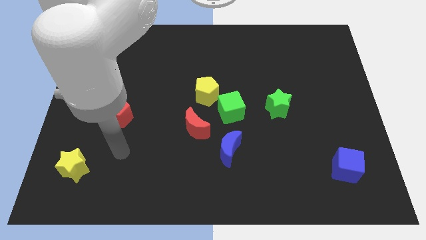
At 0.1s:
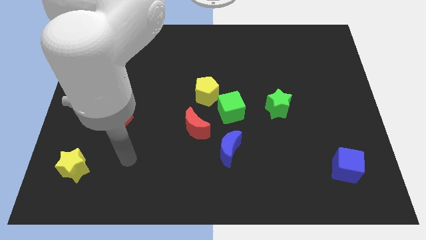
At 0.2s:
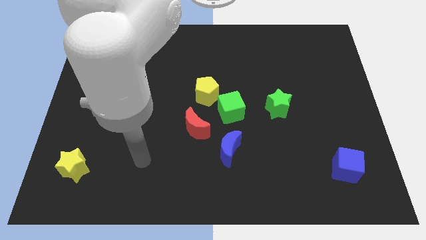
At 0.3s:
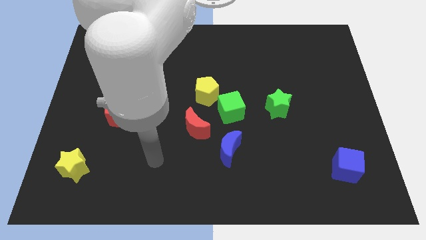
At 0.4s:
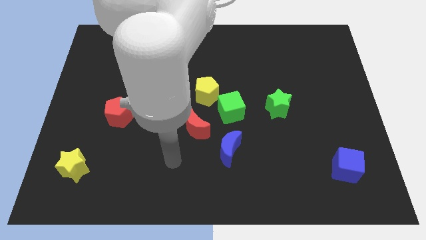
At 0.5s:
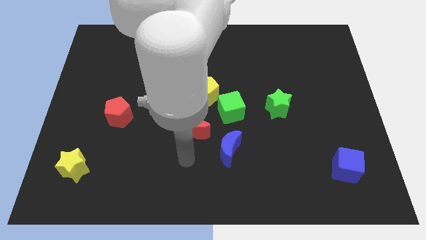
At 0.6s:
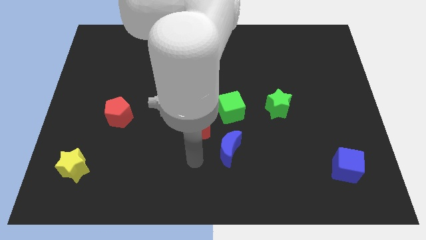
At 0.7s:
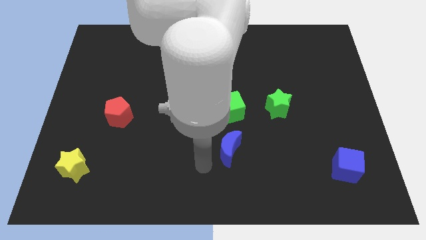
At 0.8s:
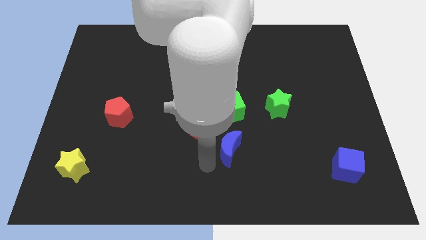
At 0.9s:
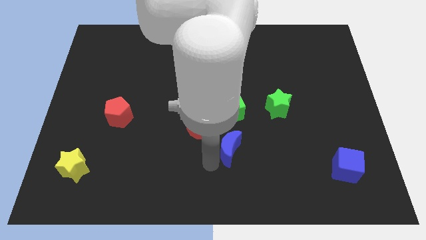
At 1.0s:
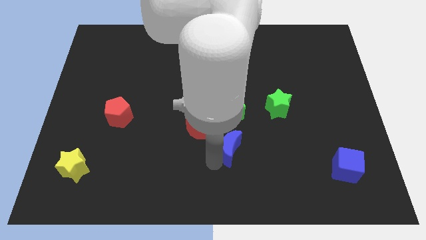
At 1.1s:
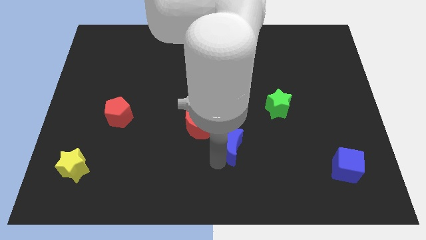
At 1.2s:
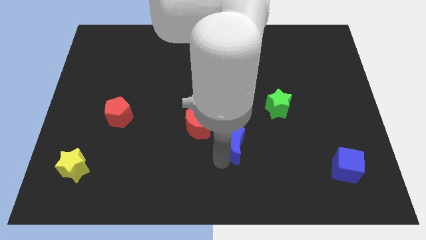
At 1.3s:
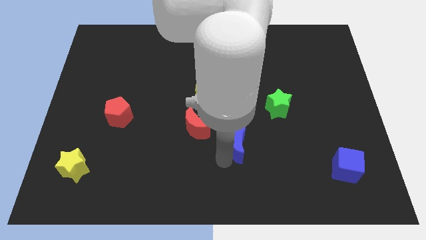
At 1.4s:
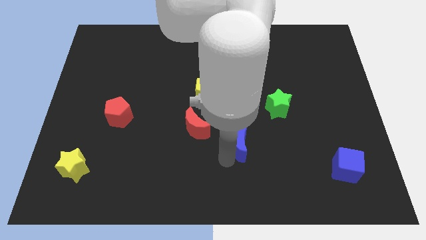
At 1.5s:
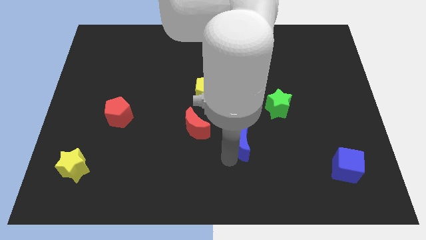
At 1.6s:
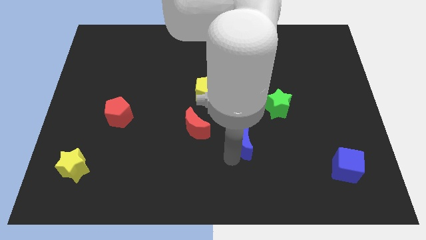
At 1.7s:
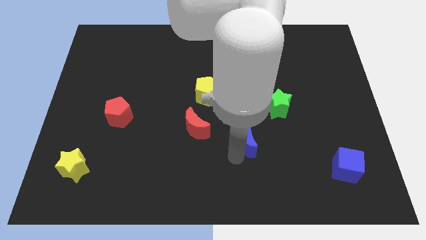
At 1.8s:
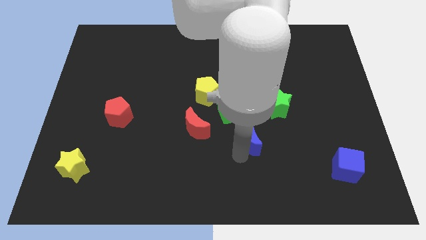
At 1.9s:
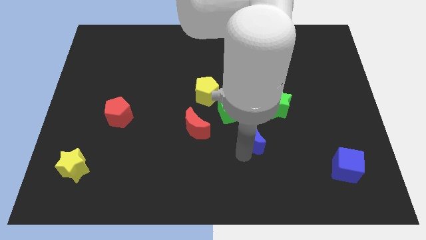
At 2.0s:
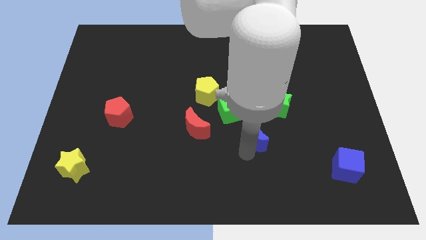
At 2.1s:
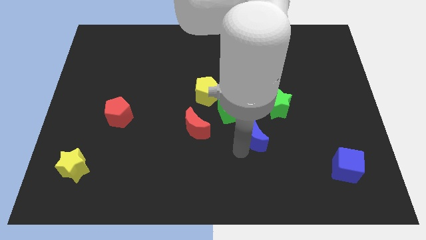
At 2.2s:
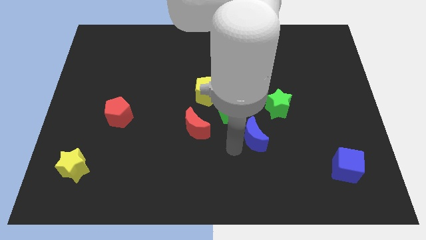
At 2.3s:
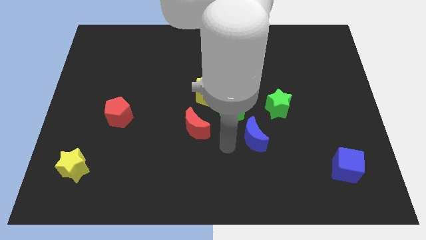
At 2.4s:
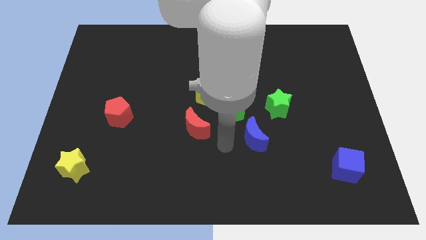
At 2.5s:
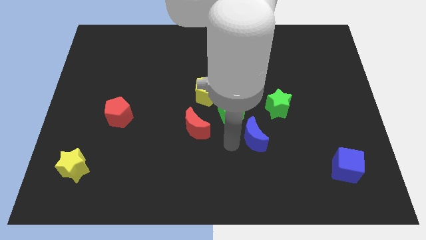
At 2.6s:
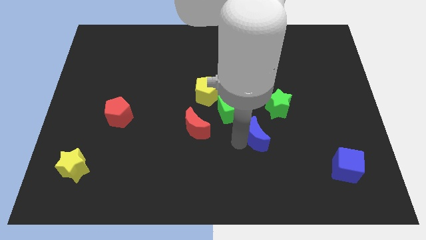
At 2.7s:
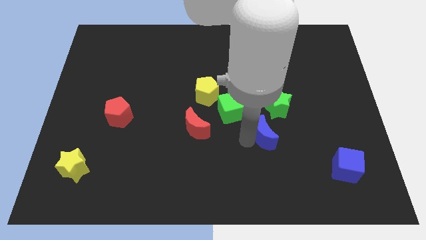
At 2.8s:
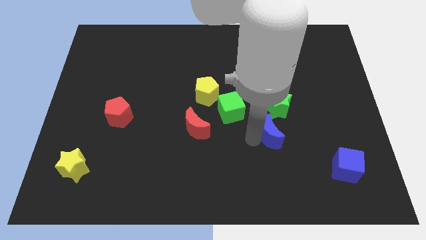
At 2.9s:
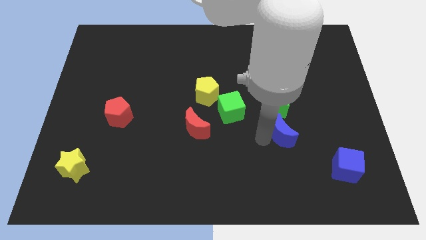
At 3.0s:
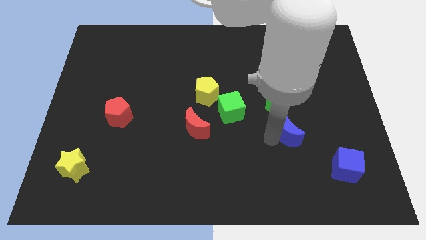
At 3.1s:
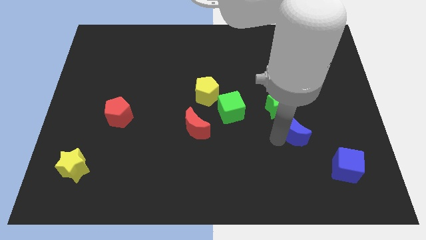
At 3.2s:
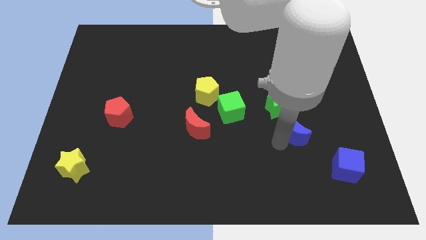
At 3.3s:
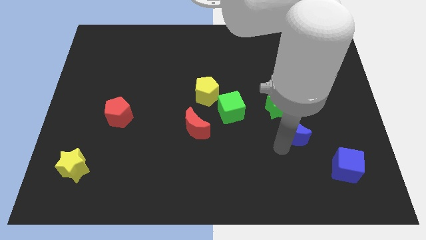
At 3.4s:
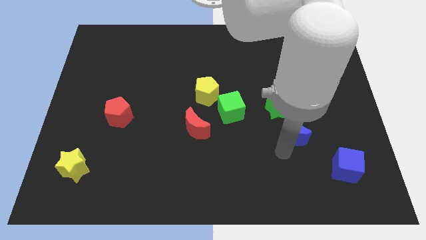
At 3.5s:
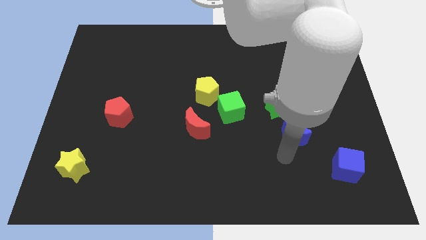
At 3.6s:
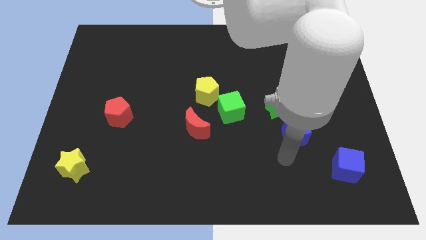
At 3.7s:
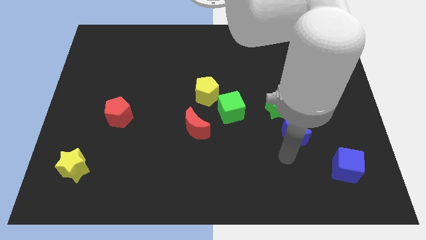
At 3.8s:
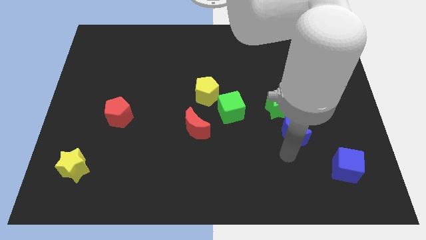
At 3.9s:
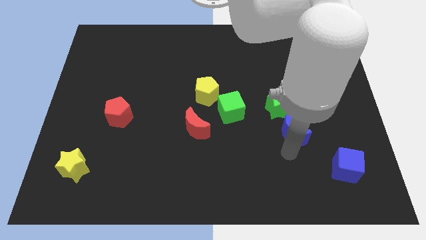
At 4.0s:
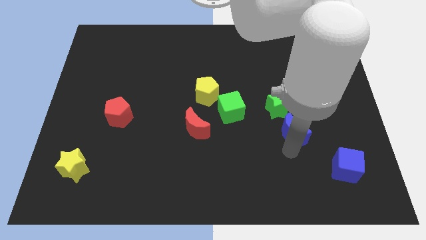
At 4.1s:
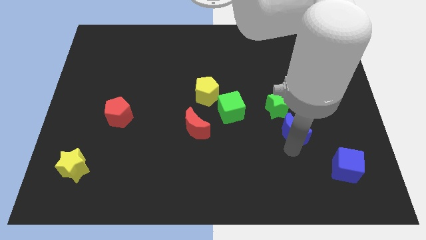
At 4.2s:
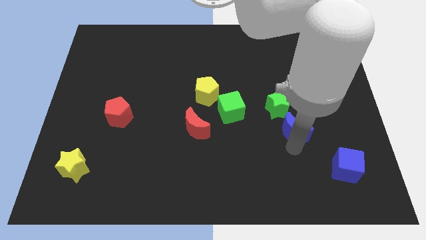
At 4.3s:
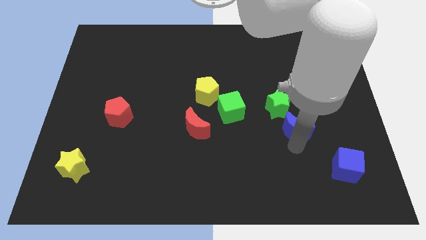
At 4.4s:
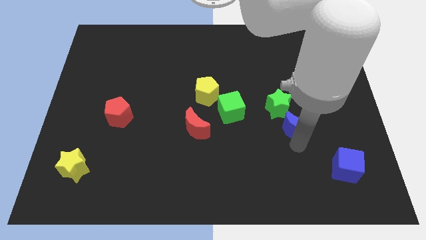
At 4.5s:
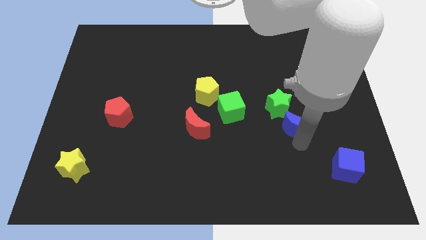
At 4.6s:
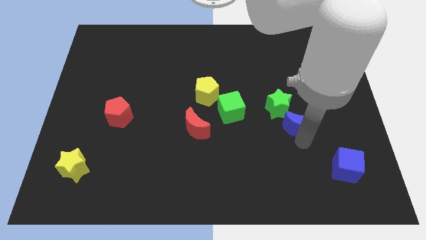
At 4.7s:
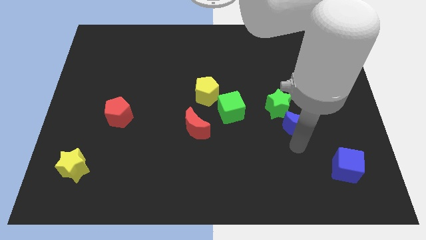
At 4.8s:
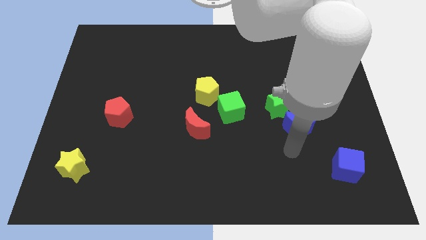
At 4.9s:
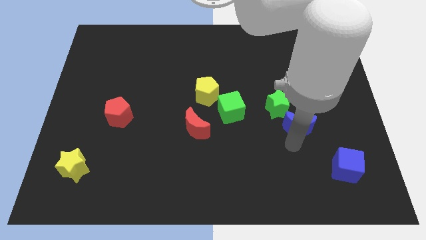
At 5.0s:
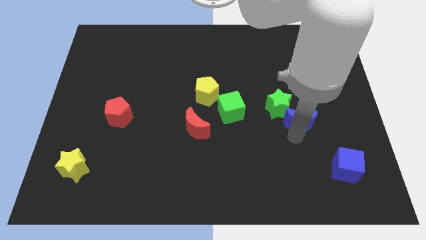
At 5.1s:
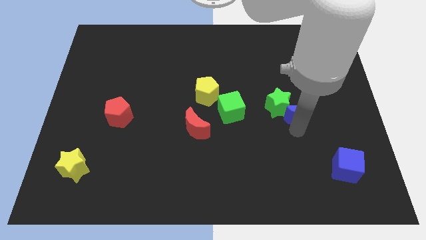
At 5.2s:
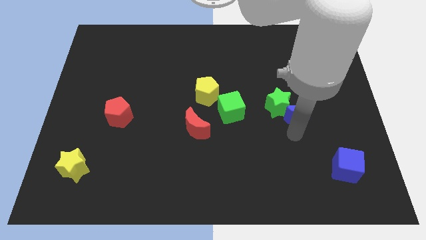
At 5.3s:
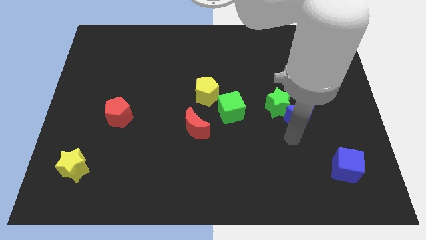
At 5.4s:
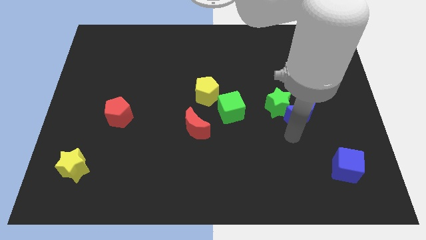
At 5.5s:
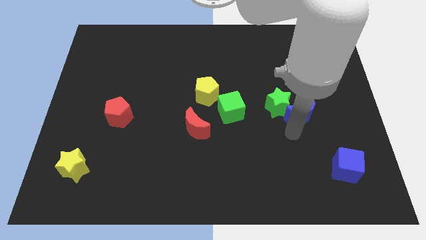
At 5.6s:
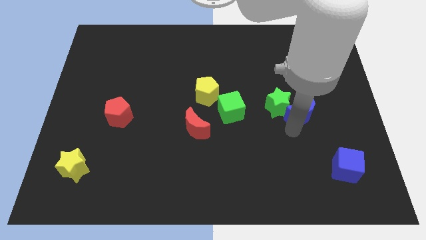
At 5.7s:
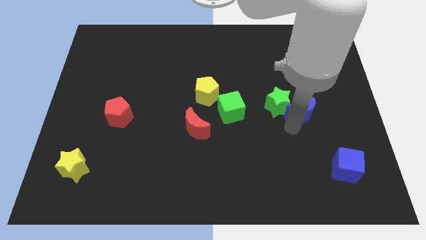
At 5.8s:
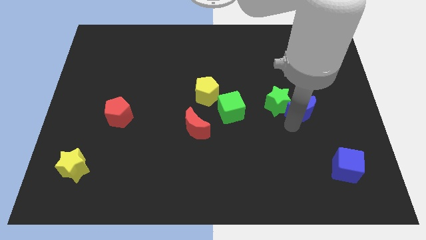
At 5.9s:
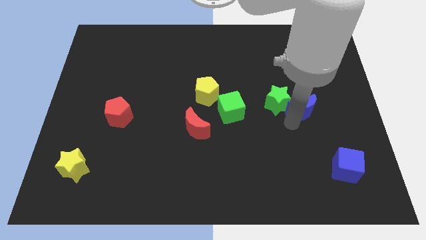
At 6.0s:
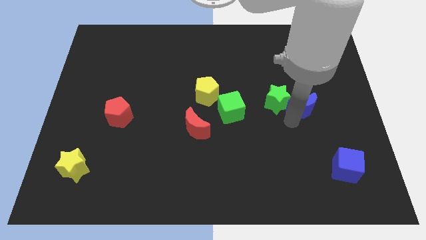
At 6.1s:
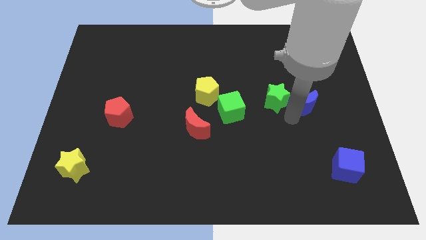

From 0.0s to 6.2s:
slide the blue moon upwards and right diagonally

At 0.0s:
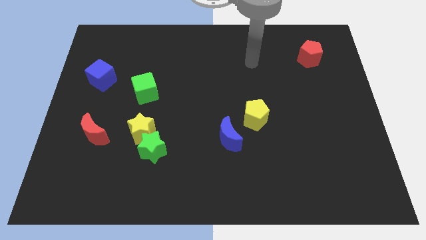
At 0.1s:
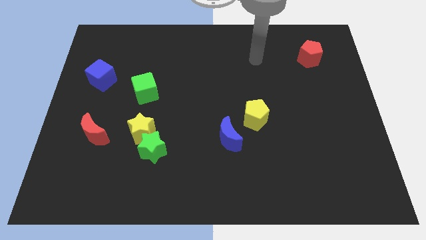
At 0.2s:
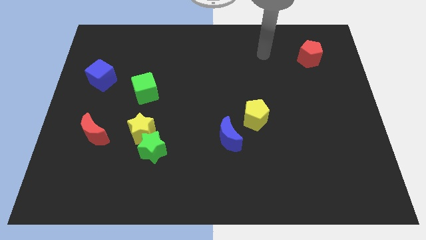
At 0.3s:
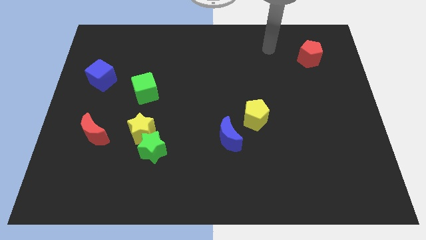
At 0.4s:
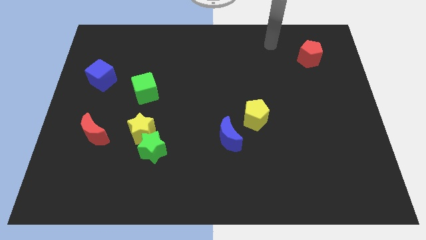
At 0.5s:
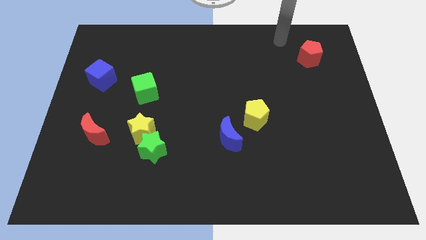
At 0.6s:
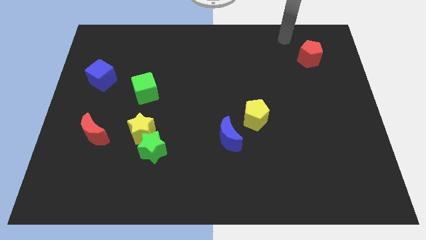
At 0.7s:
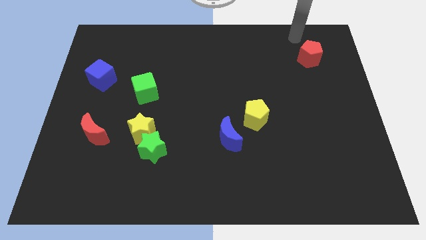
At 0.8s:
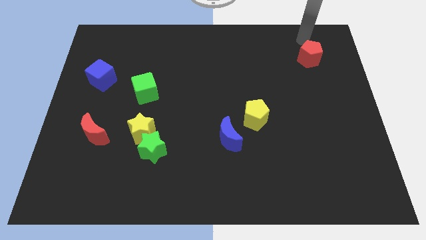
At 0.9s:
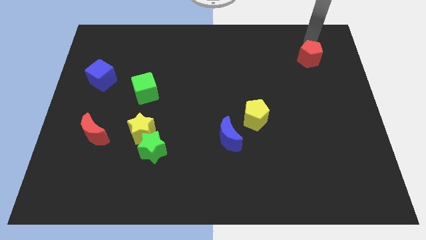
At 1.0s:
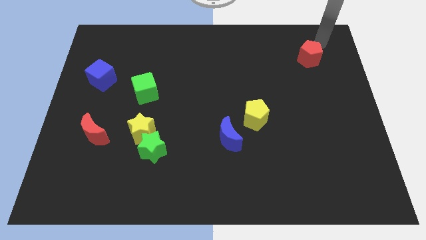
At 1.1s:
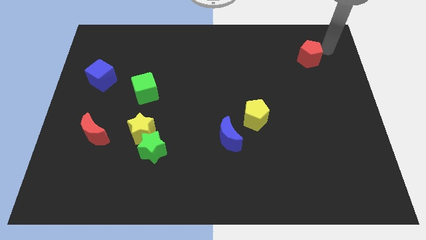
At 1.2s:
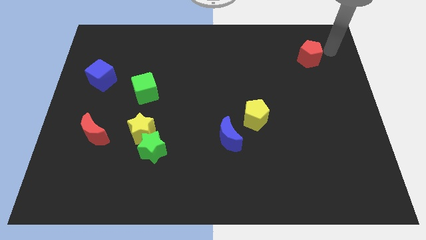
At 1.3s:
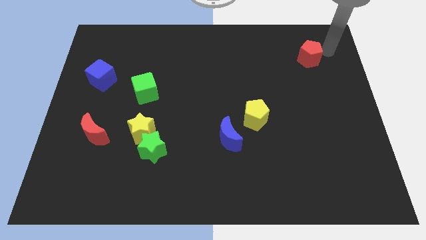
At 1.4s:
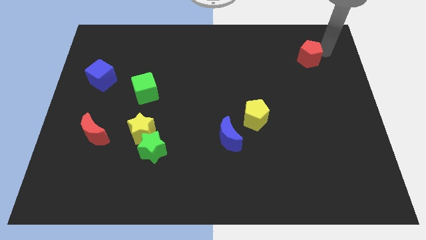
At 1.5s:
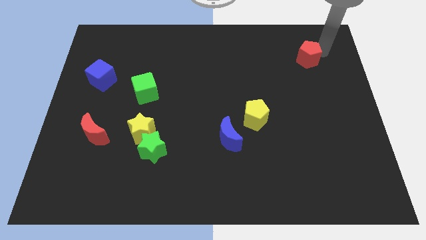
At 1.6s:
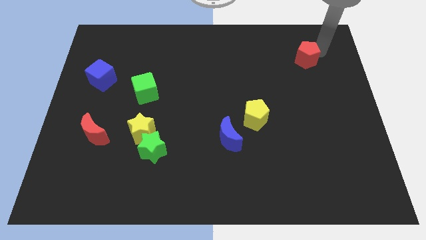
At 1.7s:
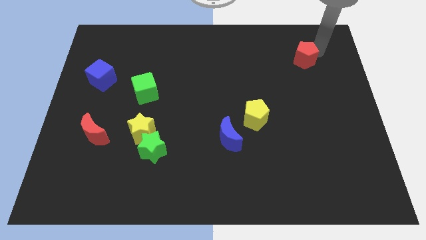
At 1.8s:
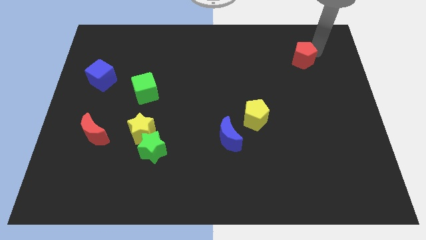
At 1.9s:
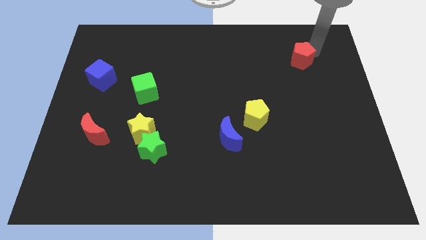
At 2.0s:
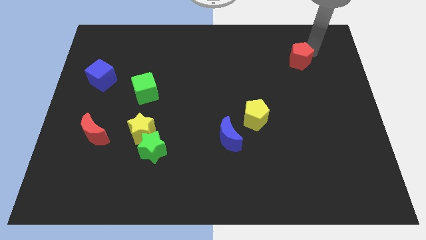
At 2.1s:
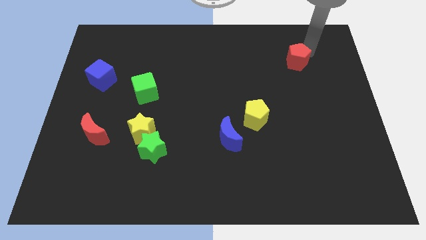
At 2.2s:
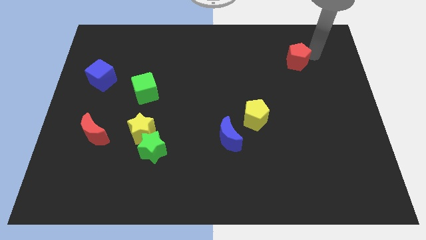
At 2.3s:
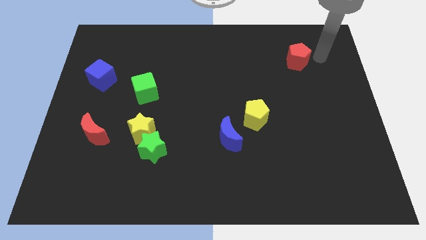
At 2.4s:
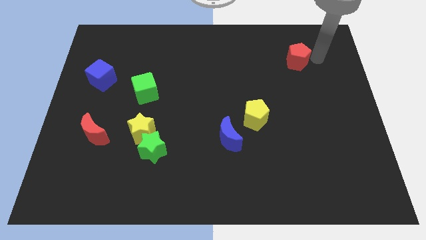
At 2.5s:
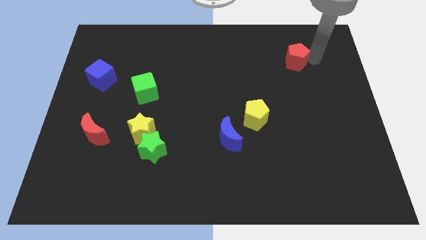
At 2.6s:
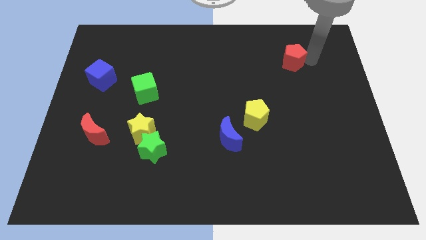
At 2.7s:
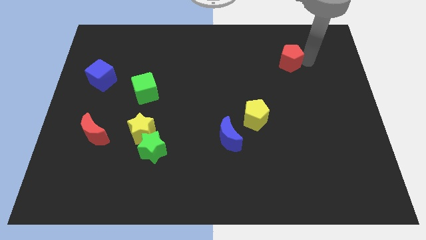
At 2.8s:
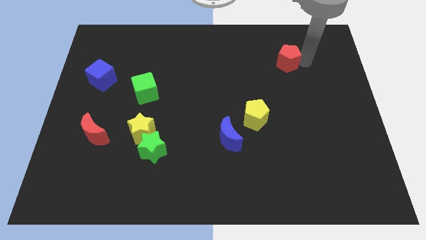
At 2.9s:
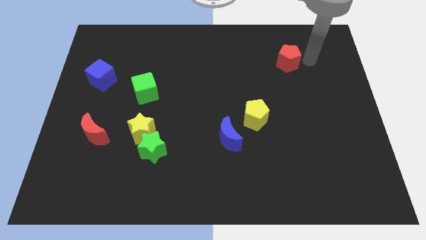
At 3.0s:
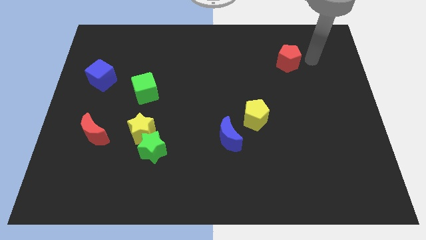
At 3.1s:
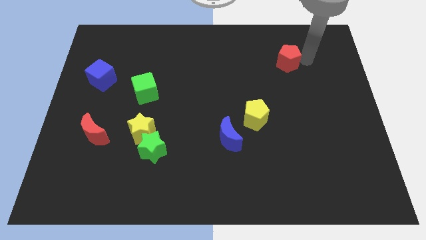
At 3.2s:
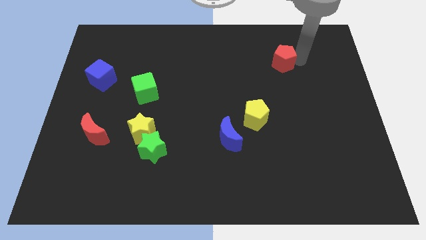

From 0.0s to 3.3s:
slightly slide the red pentagon left
